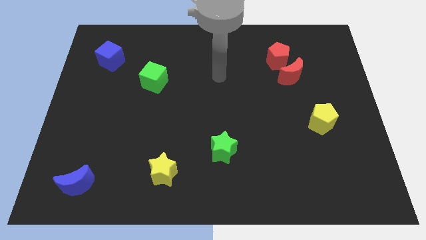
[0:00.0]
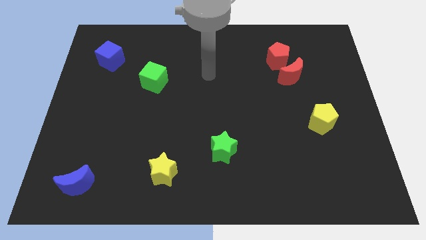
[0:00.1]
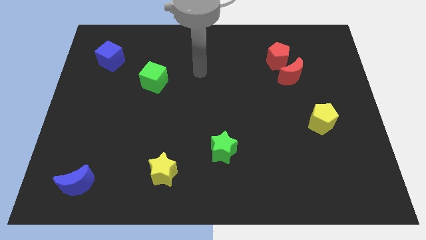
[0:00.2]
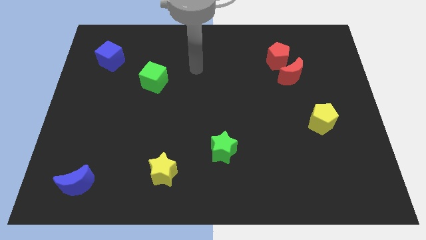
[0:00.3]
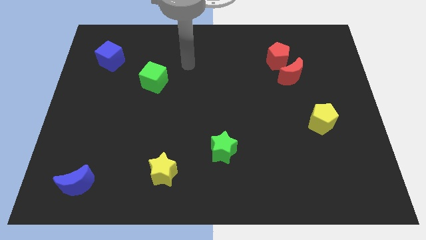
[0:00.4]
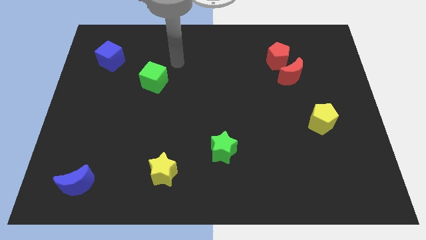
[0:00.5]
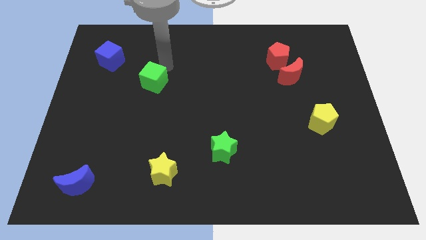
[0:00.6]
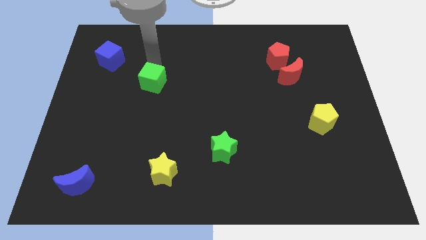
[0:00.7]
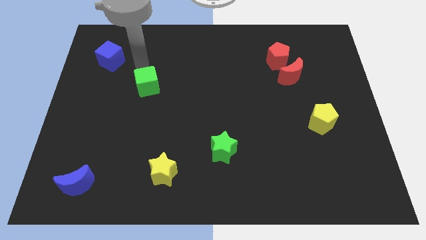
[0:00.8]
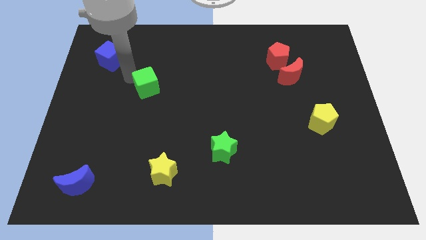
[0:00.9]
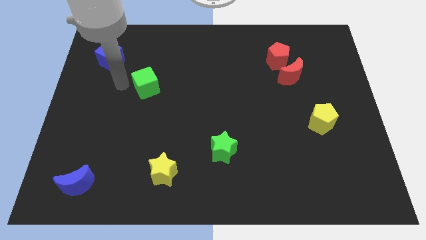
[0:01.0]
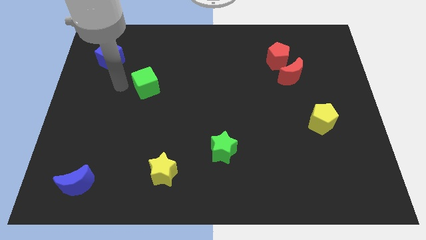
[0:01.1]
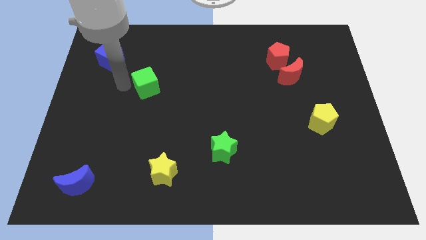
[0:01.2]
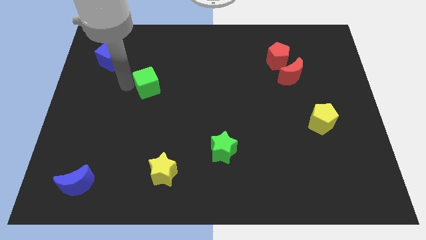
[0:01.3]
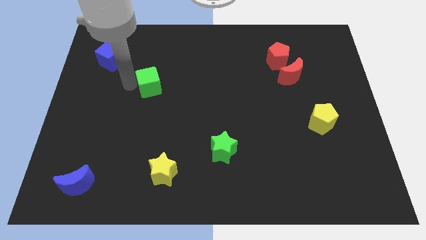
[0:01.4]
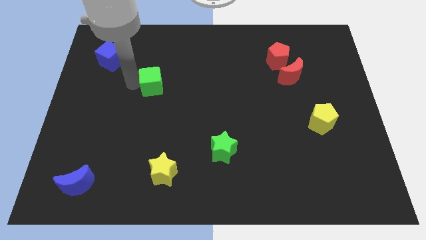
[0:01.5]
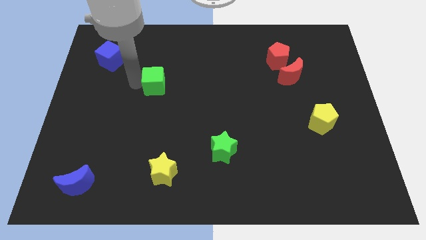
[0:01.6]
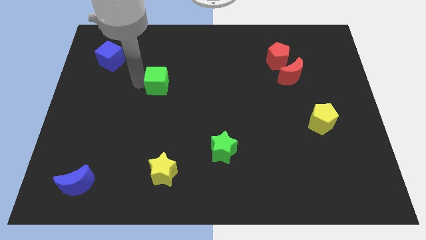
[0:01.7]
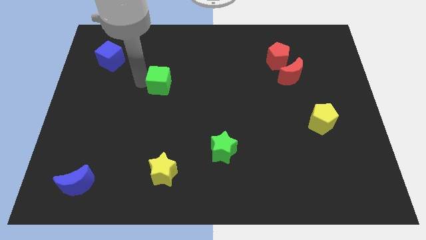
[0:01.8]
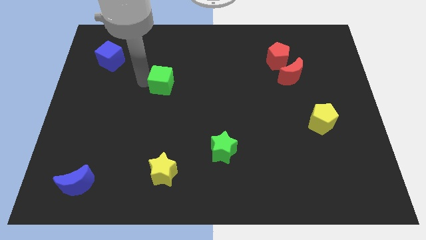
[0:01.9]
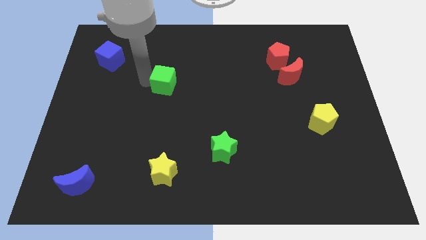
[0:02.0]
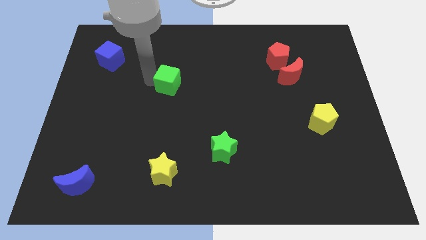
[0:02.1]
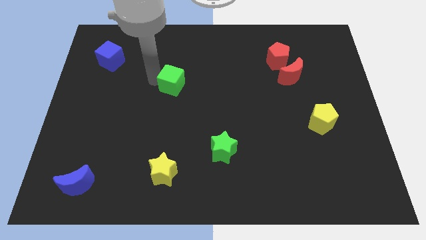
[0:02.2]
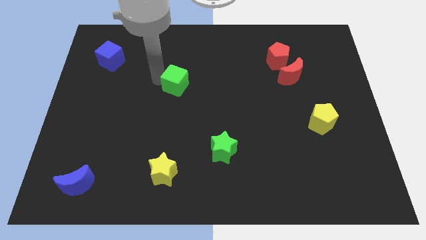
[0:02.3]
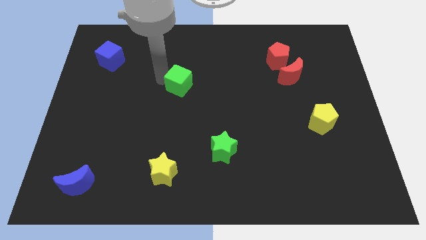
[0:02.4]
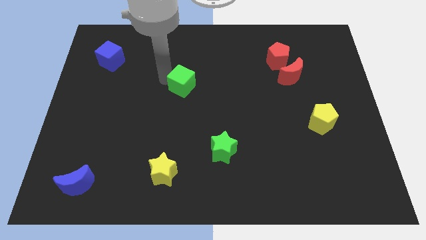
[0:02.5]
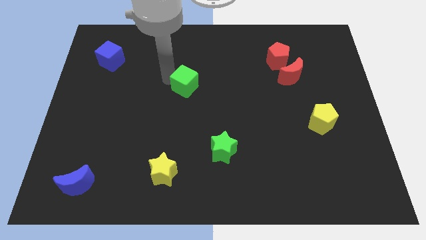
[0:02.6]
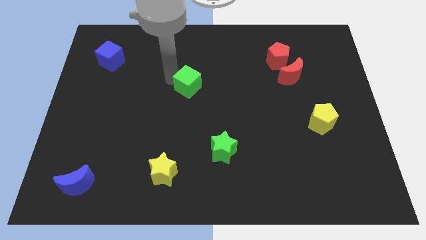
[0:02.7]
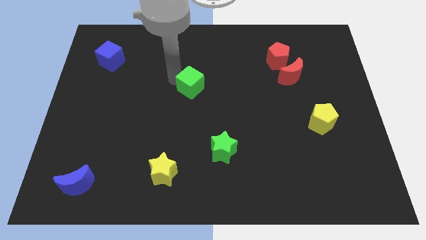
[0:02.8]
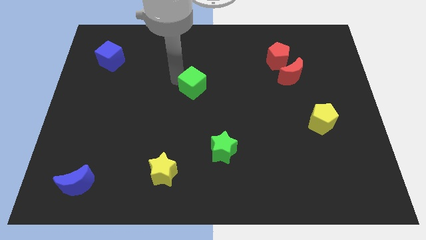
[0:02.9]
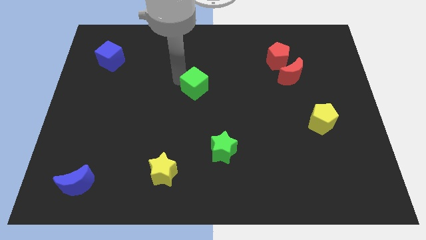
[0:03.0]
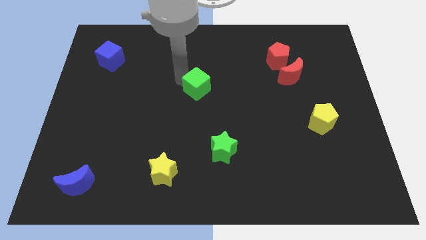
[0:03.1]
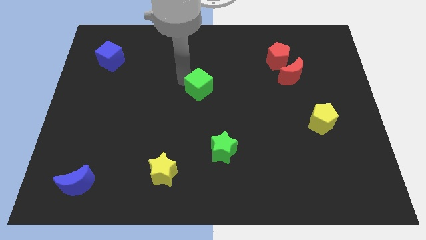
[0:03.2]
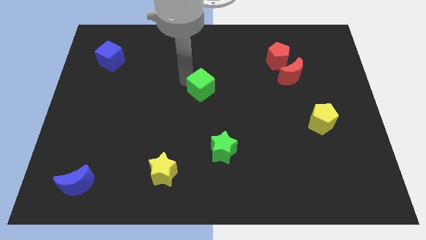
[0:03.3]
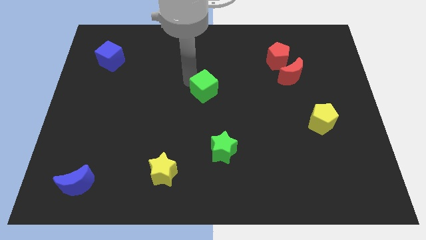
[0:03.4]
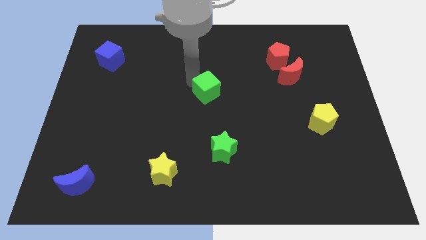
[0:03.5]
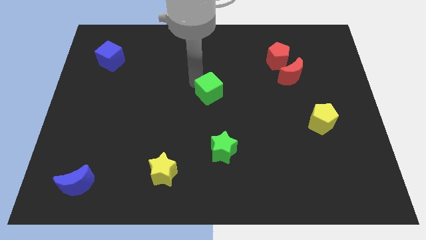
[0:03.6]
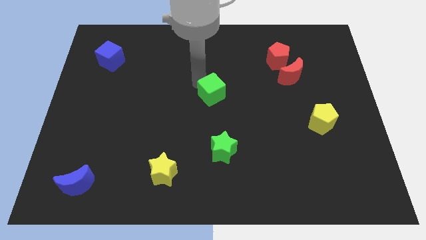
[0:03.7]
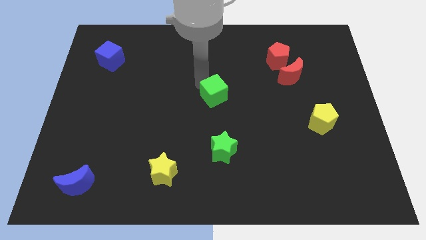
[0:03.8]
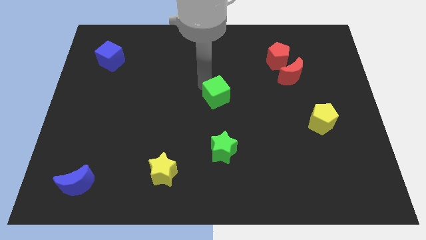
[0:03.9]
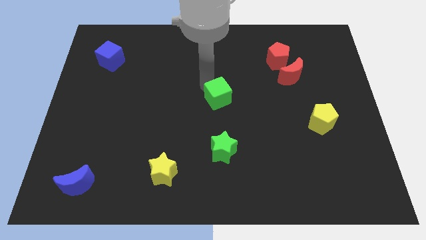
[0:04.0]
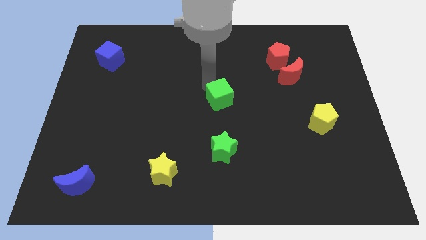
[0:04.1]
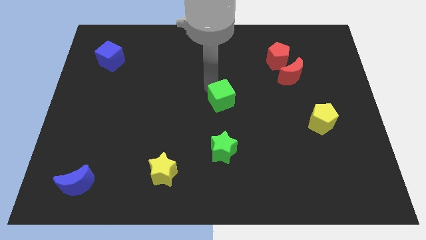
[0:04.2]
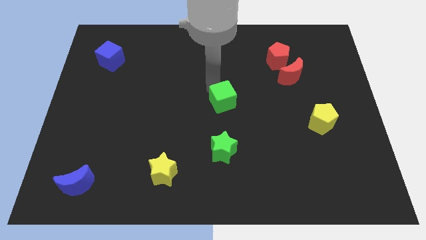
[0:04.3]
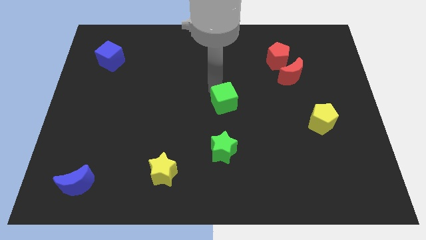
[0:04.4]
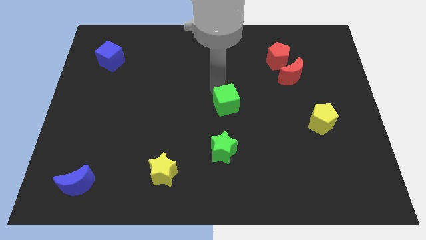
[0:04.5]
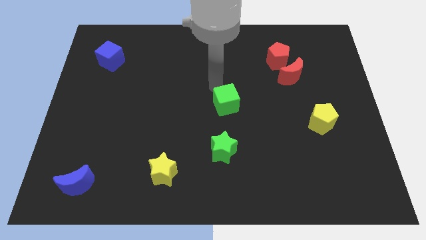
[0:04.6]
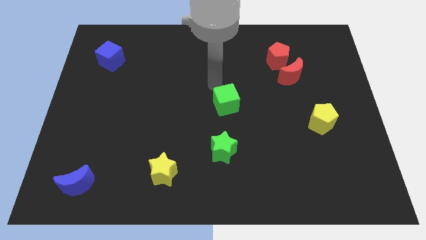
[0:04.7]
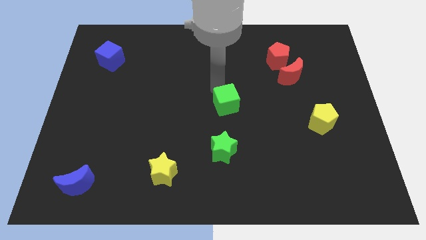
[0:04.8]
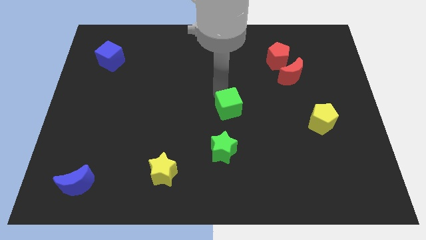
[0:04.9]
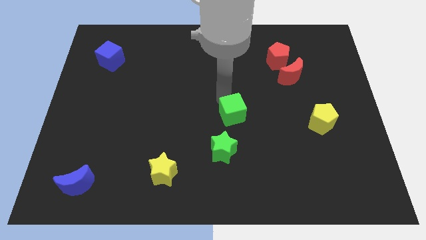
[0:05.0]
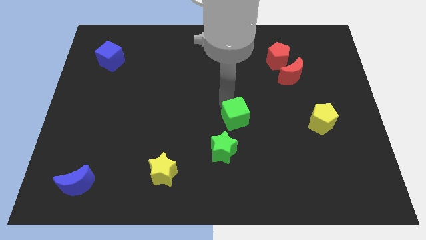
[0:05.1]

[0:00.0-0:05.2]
push the green cube downwards and right

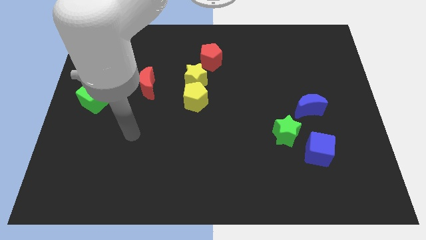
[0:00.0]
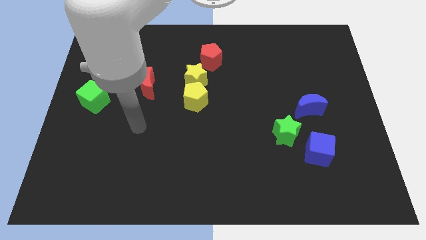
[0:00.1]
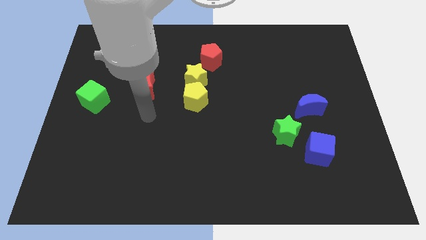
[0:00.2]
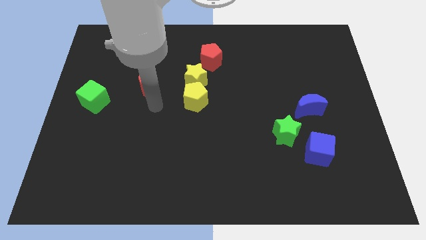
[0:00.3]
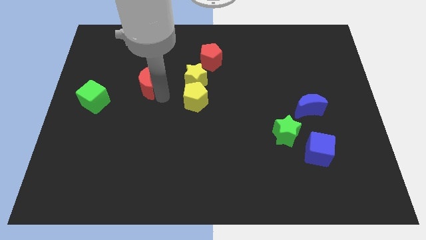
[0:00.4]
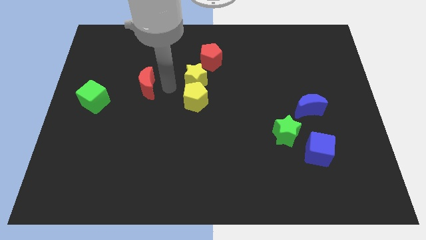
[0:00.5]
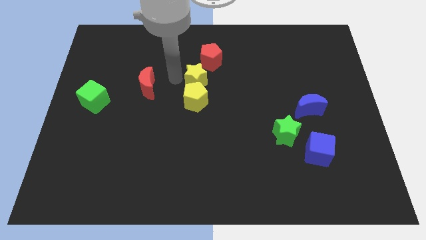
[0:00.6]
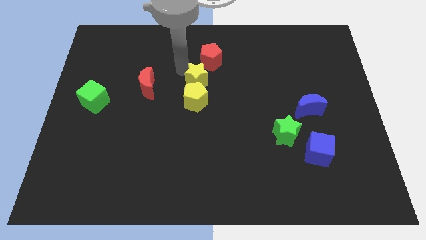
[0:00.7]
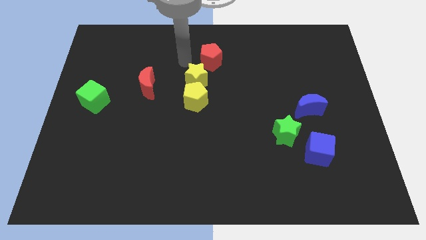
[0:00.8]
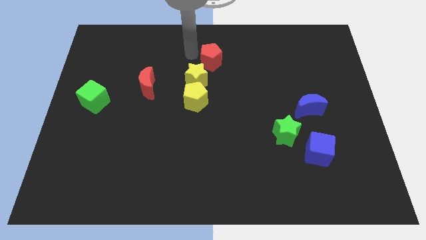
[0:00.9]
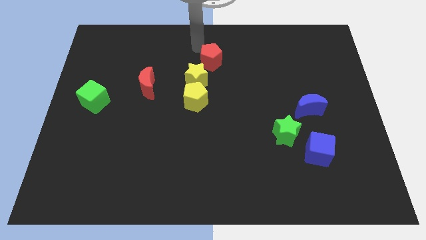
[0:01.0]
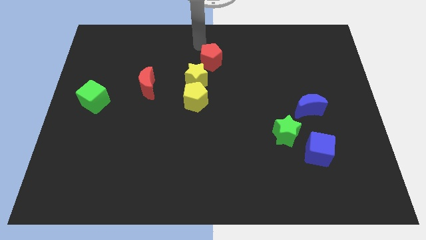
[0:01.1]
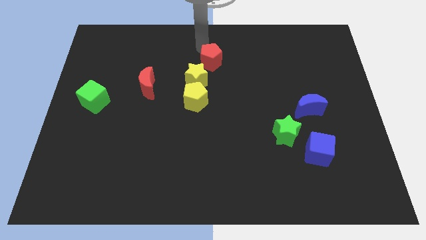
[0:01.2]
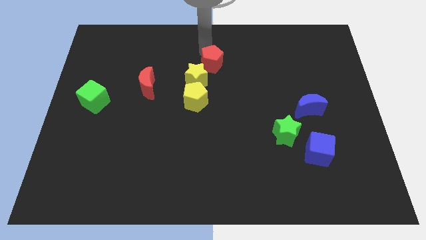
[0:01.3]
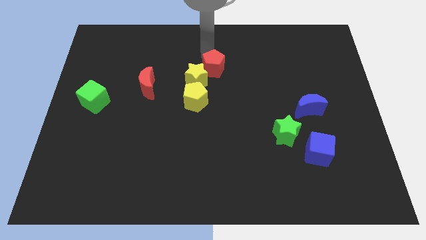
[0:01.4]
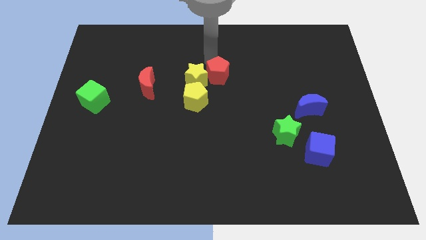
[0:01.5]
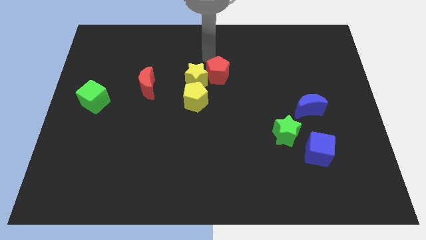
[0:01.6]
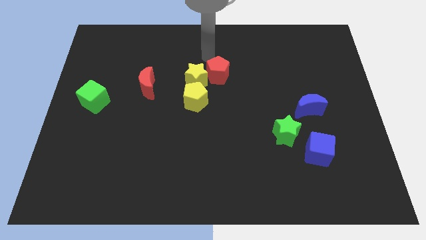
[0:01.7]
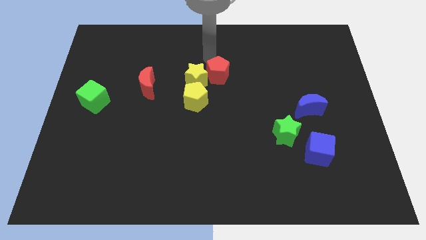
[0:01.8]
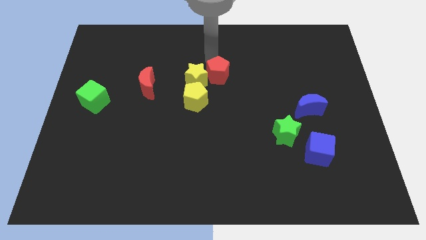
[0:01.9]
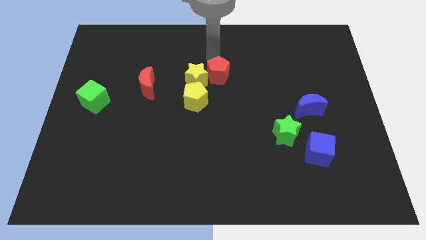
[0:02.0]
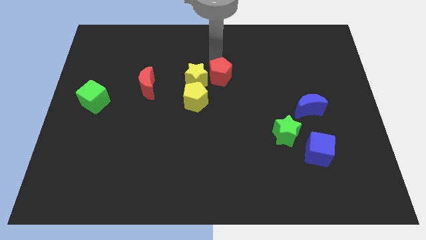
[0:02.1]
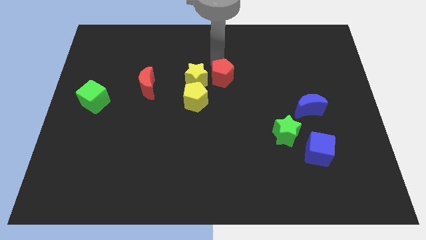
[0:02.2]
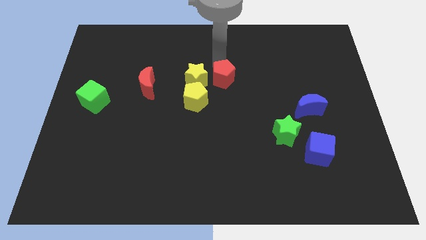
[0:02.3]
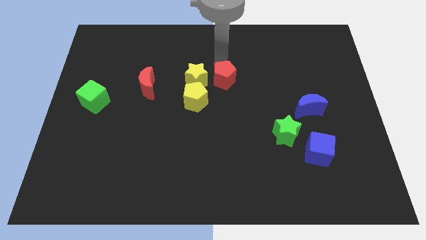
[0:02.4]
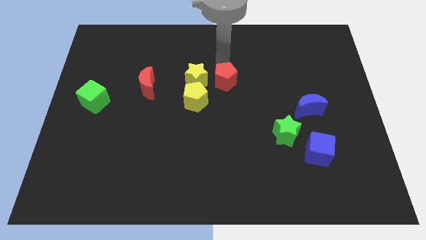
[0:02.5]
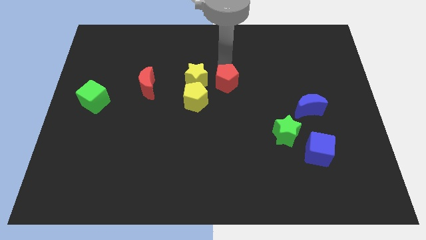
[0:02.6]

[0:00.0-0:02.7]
slide the red pentagon slightly downwards
